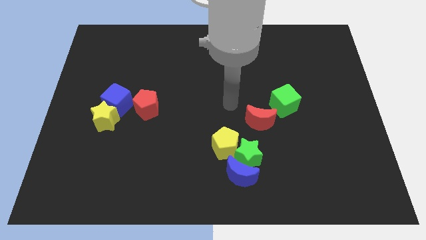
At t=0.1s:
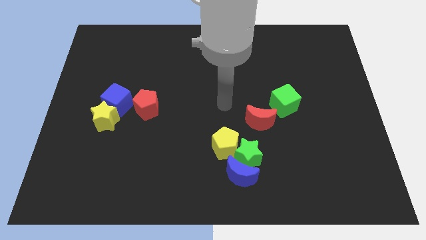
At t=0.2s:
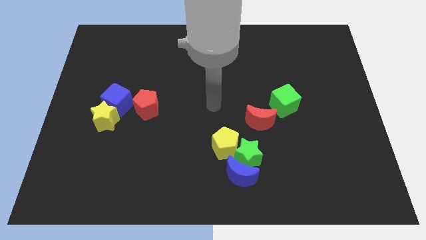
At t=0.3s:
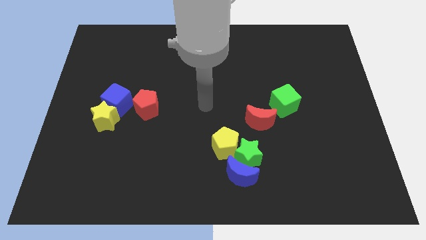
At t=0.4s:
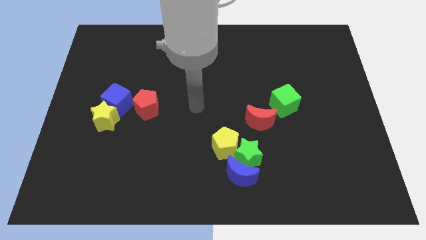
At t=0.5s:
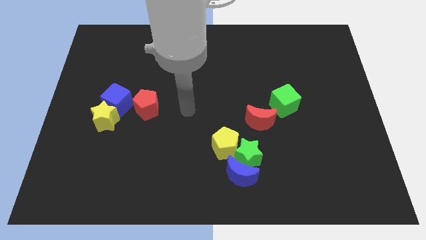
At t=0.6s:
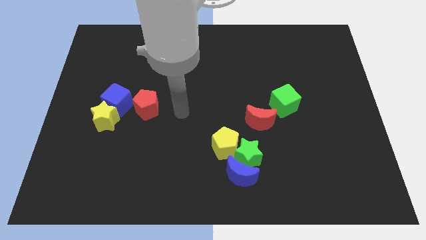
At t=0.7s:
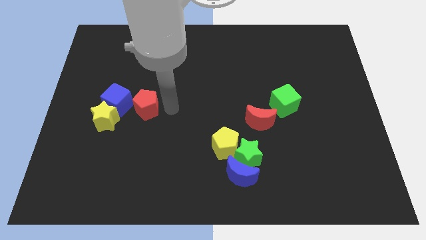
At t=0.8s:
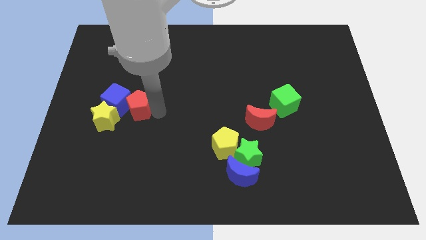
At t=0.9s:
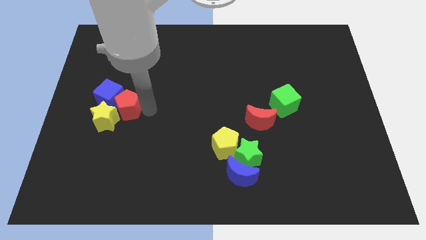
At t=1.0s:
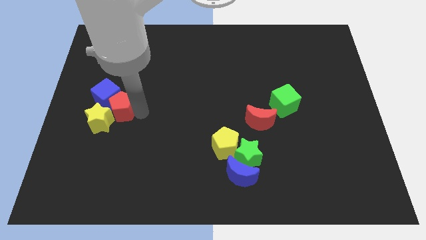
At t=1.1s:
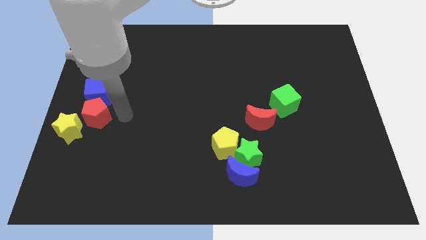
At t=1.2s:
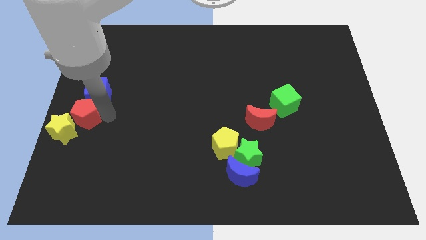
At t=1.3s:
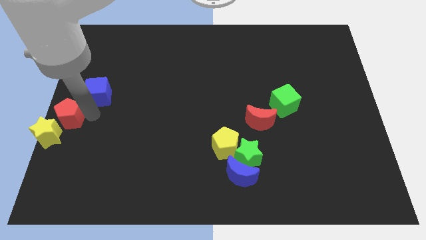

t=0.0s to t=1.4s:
pull the blue cube apart from the yellow star and red pentagon

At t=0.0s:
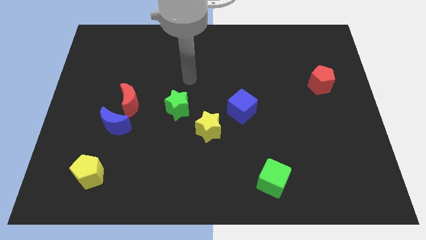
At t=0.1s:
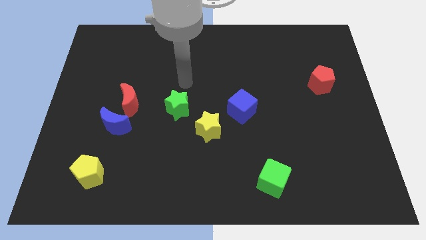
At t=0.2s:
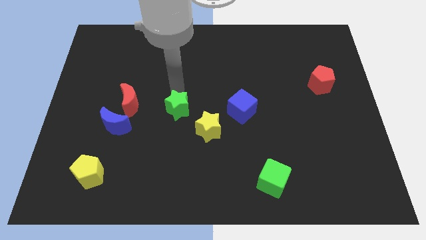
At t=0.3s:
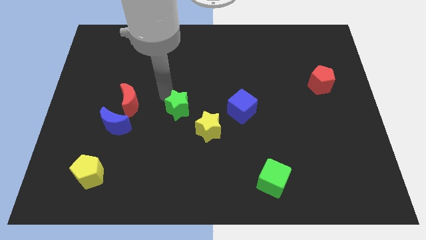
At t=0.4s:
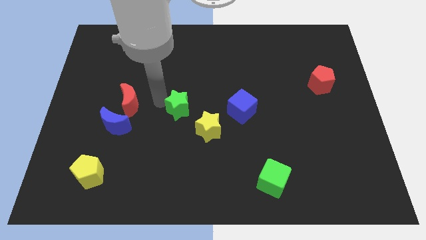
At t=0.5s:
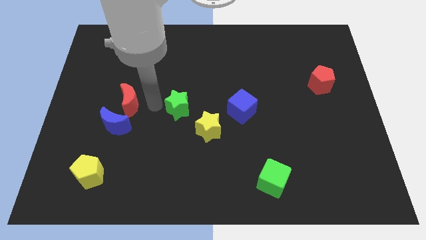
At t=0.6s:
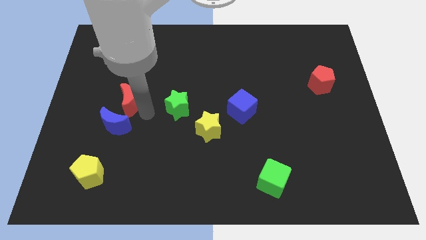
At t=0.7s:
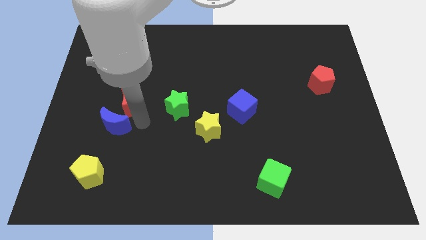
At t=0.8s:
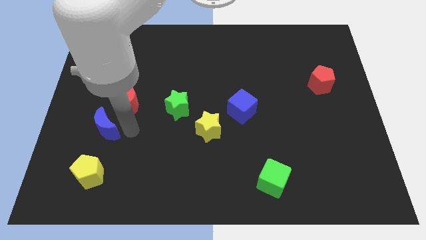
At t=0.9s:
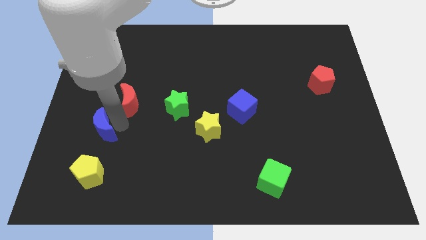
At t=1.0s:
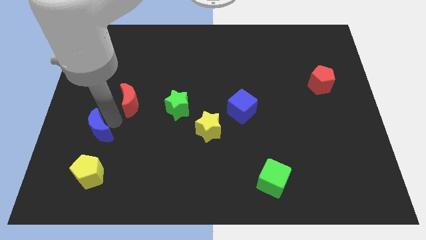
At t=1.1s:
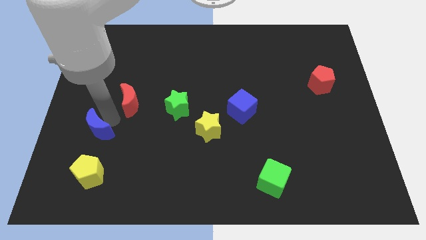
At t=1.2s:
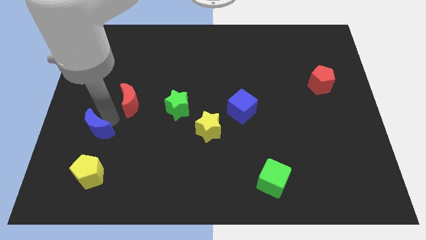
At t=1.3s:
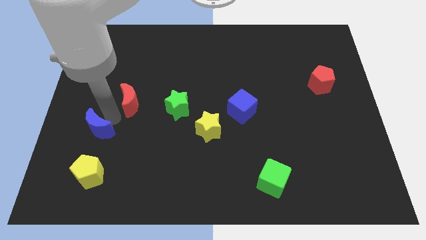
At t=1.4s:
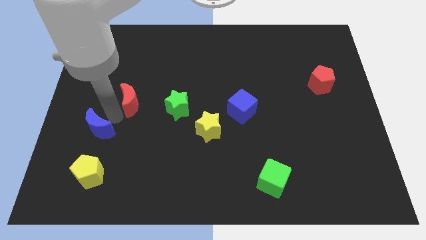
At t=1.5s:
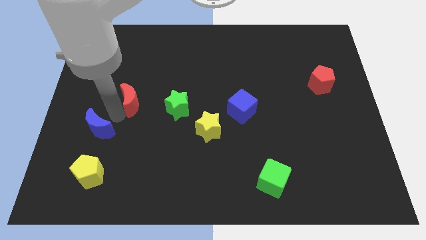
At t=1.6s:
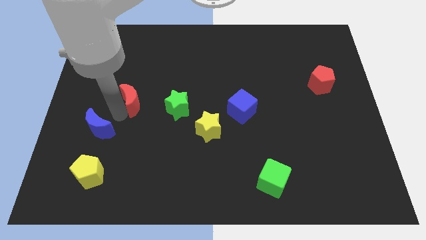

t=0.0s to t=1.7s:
pull the red moon apart from the blue moon

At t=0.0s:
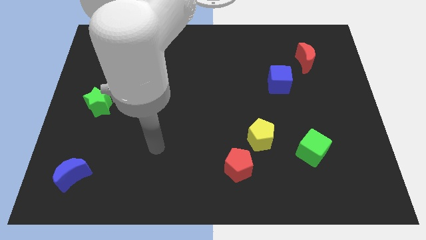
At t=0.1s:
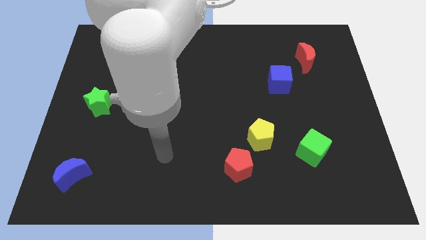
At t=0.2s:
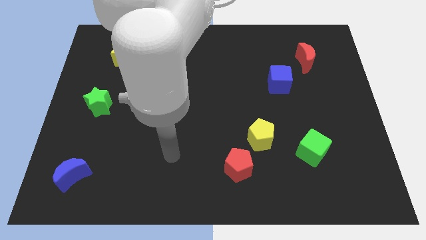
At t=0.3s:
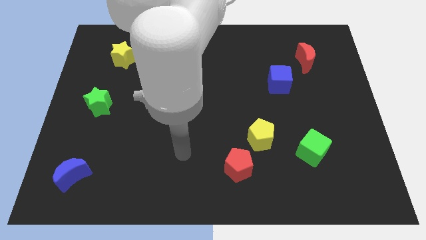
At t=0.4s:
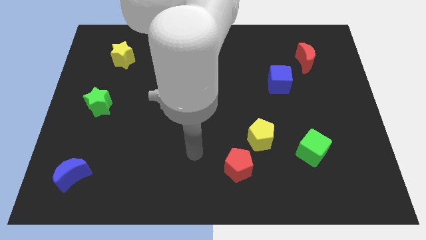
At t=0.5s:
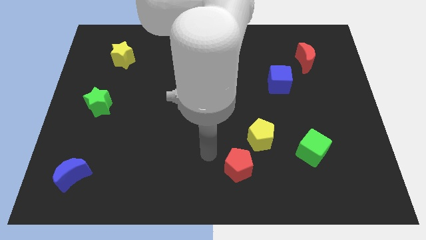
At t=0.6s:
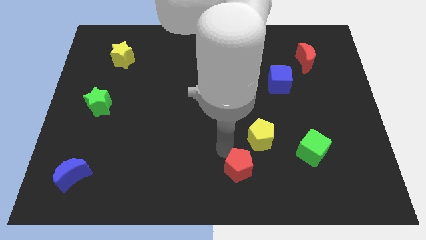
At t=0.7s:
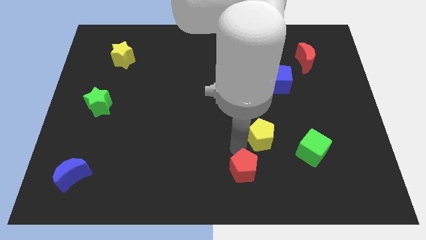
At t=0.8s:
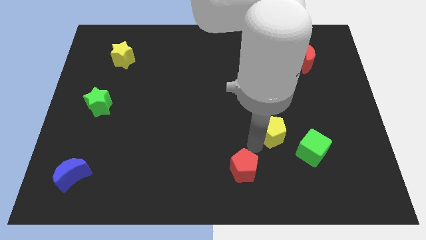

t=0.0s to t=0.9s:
move the red pentagon away from the yellow pentagon

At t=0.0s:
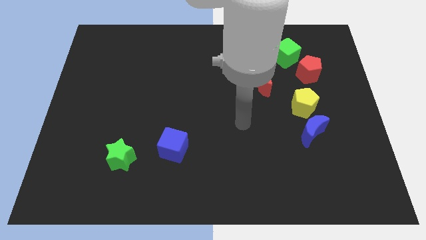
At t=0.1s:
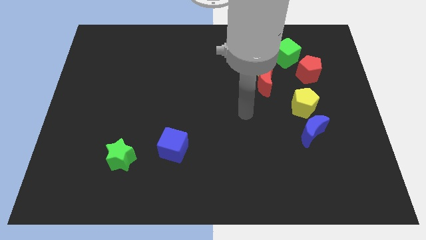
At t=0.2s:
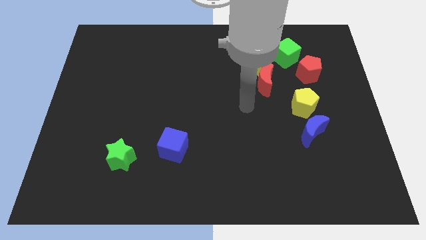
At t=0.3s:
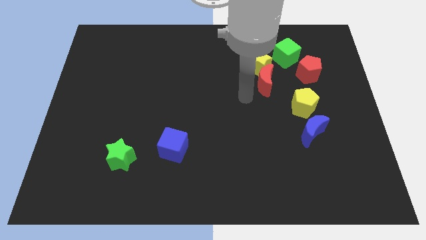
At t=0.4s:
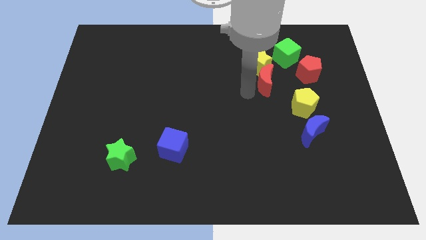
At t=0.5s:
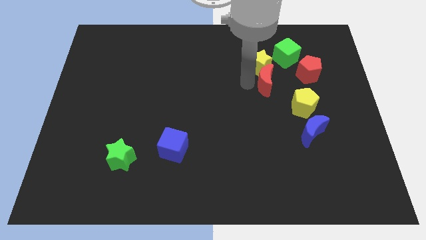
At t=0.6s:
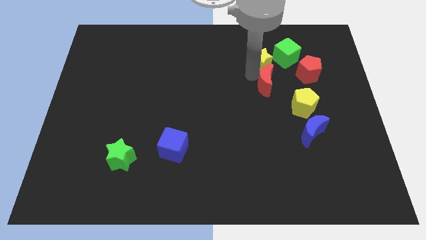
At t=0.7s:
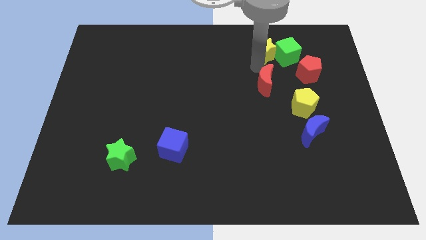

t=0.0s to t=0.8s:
pull the red moon apart from the yellow star

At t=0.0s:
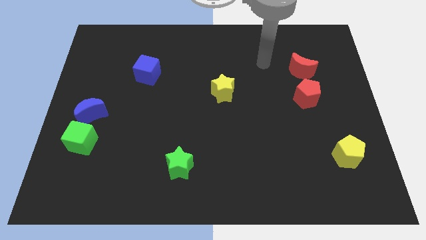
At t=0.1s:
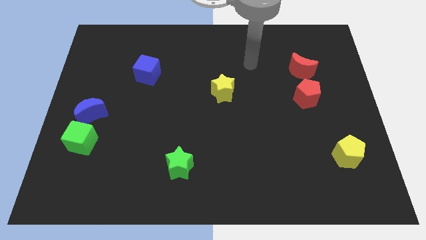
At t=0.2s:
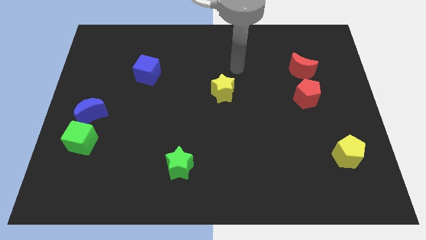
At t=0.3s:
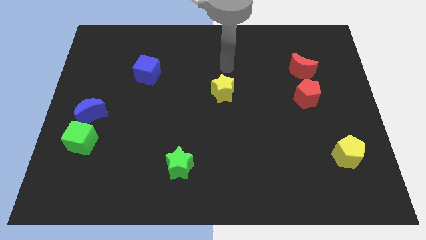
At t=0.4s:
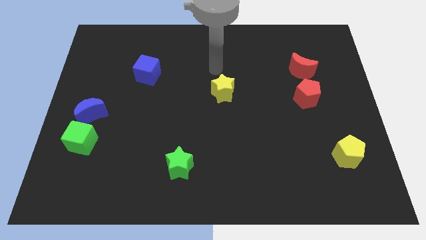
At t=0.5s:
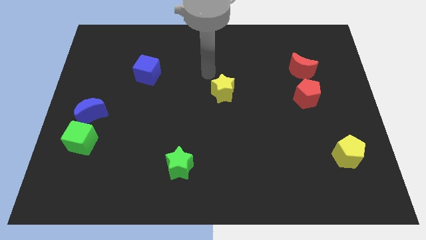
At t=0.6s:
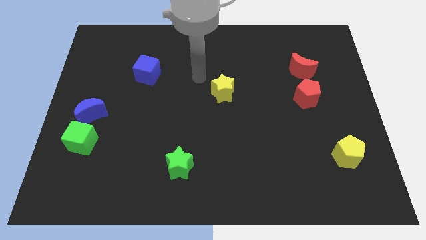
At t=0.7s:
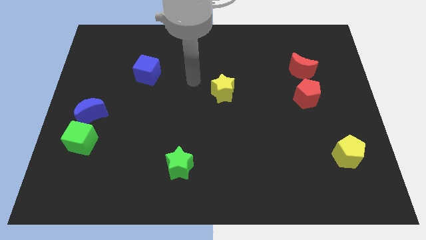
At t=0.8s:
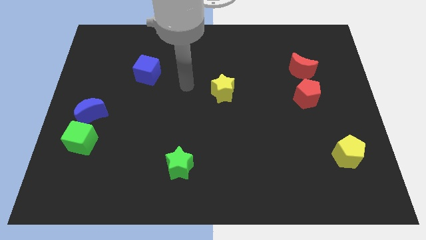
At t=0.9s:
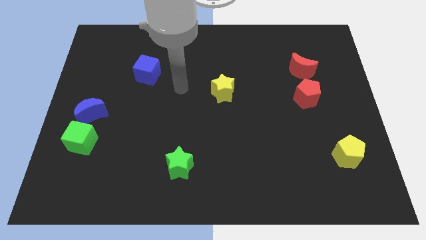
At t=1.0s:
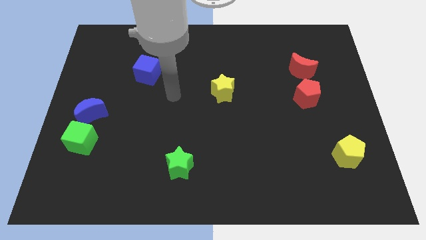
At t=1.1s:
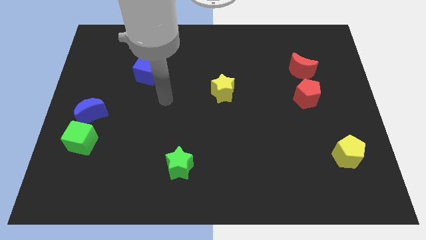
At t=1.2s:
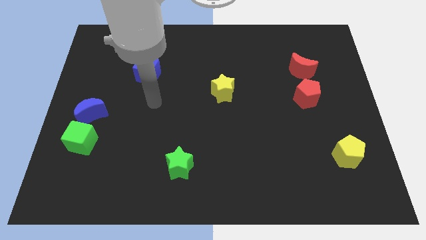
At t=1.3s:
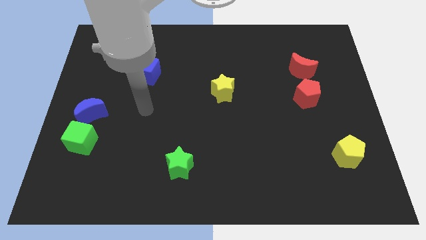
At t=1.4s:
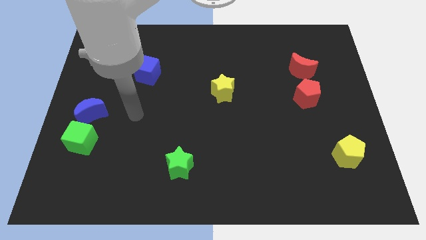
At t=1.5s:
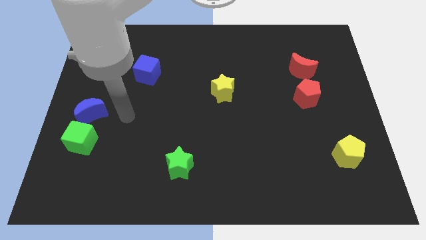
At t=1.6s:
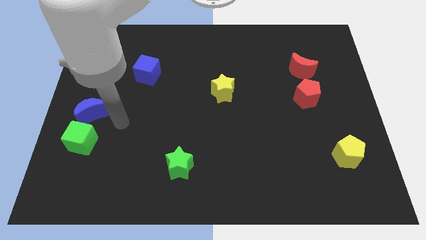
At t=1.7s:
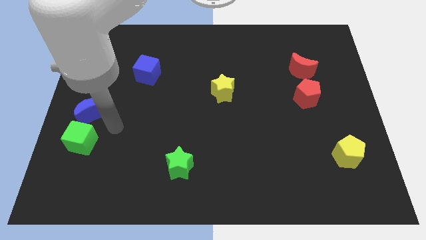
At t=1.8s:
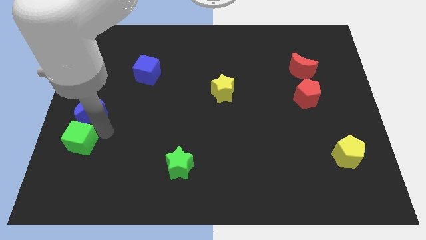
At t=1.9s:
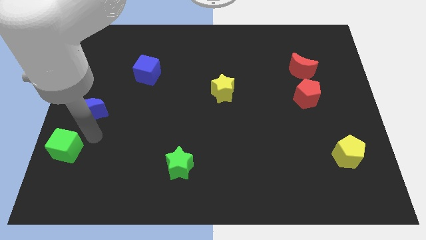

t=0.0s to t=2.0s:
pull the blue moon apart from the green cube

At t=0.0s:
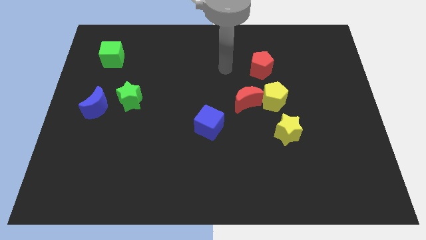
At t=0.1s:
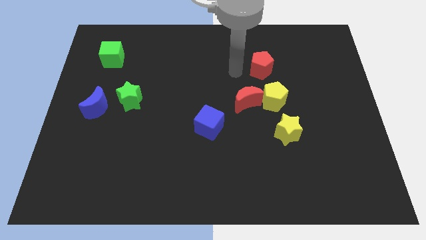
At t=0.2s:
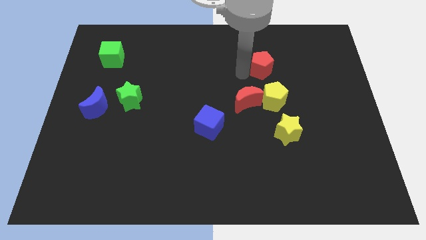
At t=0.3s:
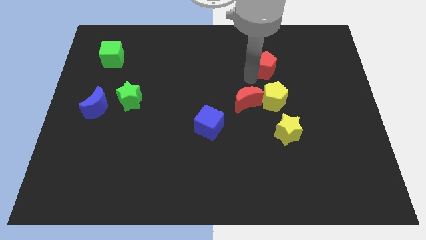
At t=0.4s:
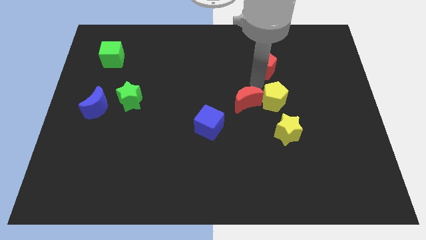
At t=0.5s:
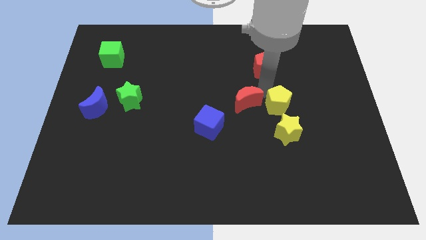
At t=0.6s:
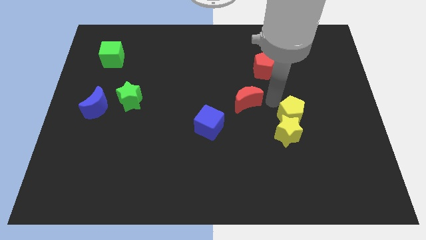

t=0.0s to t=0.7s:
separate the red moon from the yellow pentagon

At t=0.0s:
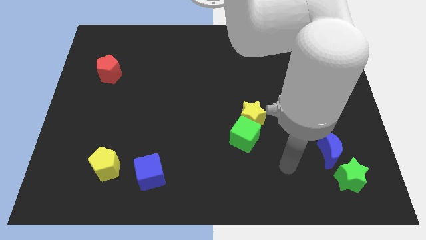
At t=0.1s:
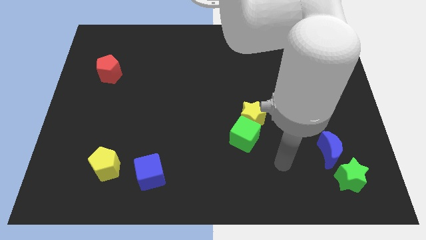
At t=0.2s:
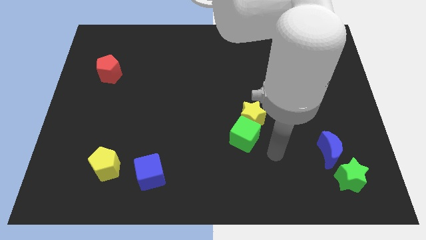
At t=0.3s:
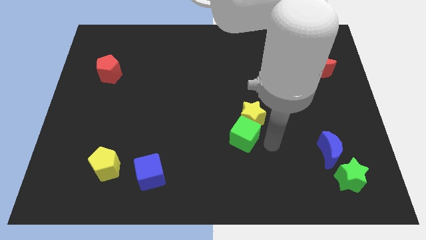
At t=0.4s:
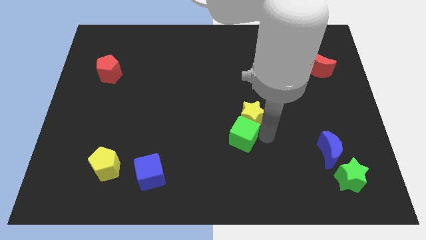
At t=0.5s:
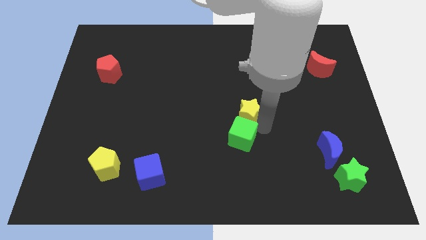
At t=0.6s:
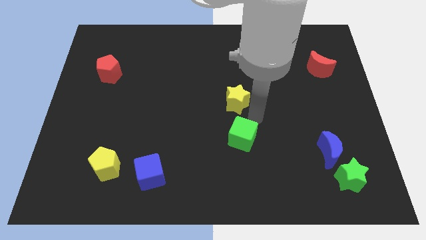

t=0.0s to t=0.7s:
separate the green cube from the yellow star

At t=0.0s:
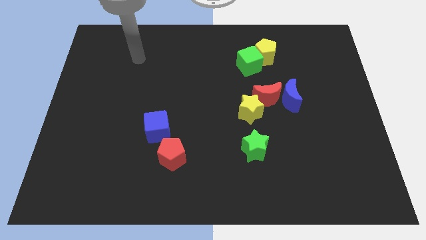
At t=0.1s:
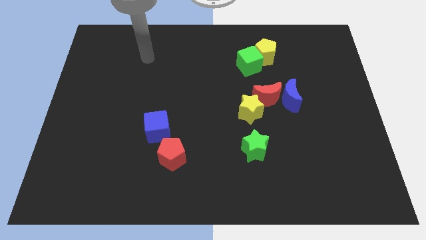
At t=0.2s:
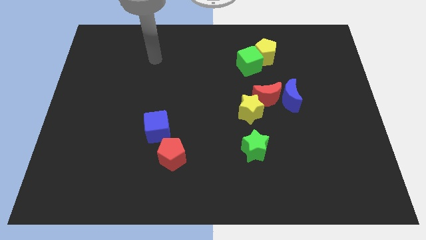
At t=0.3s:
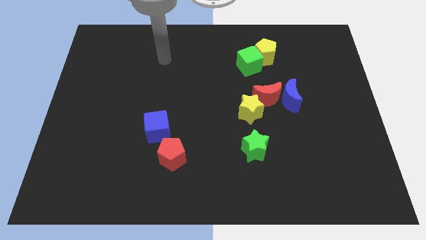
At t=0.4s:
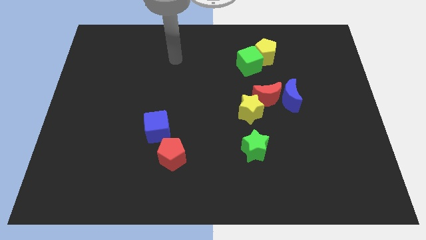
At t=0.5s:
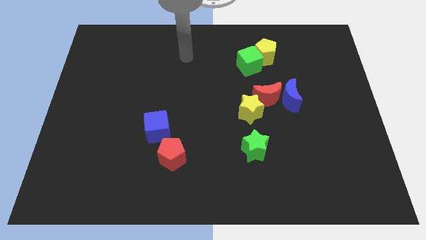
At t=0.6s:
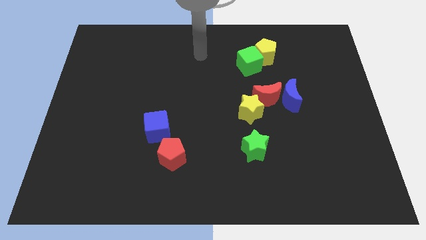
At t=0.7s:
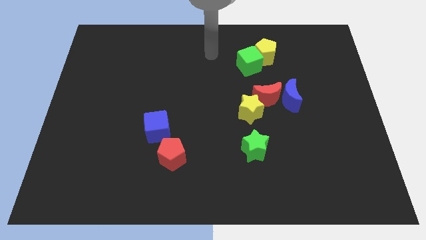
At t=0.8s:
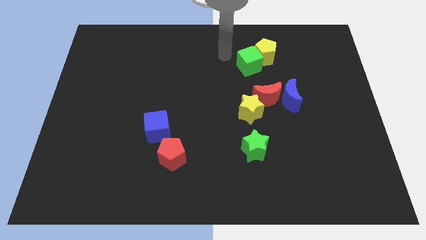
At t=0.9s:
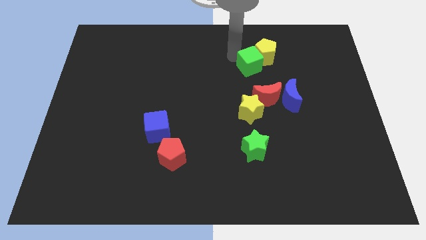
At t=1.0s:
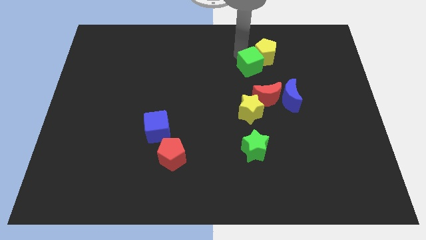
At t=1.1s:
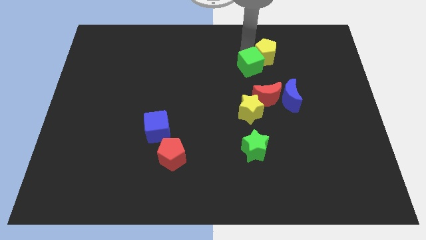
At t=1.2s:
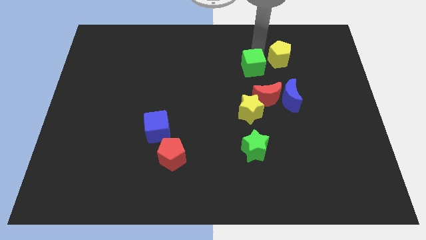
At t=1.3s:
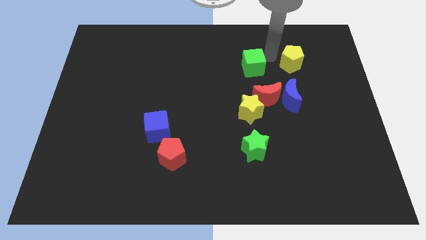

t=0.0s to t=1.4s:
pull the green cube apart from the yellow pentagon
